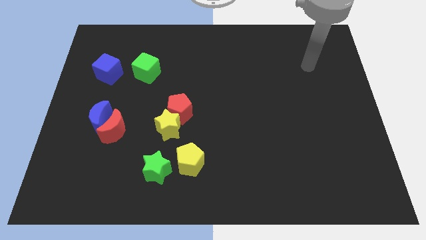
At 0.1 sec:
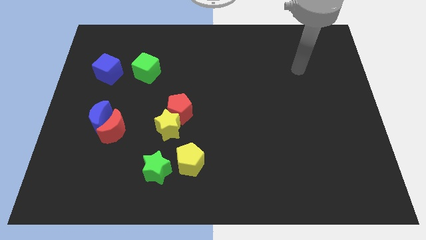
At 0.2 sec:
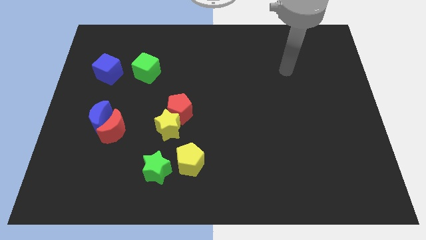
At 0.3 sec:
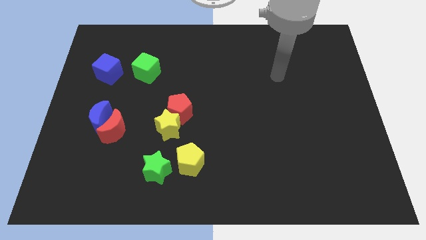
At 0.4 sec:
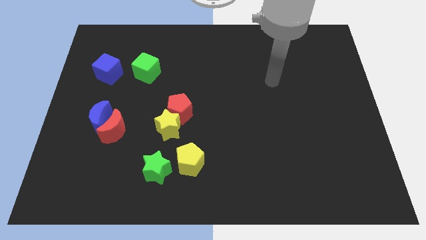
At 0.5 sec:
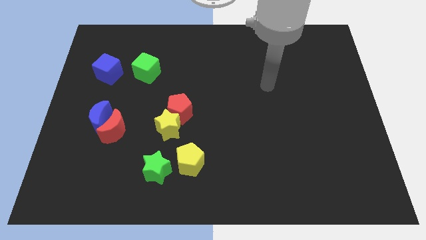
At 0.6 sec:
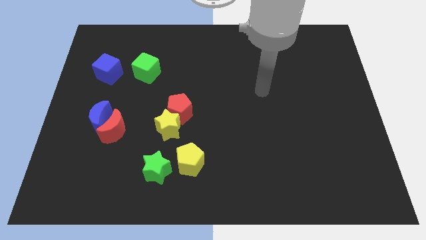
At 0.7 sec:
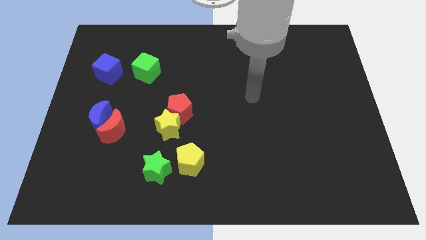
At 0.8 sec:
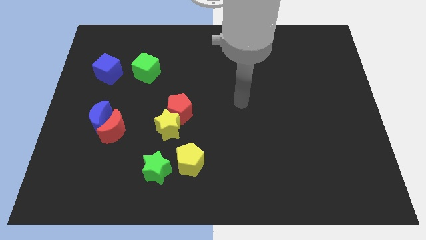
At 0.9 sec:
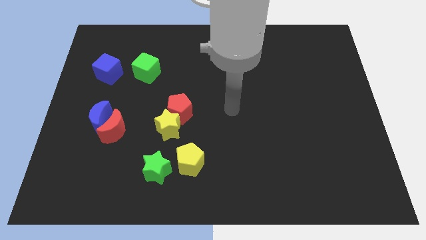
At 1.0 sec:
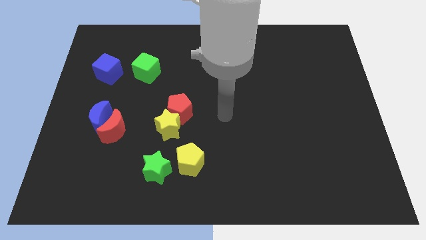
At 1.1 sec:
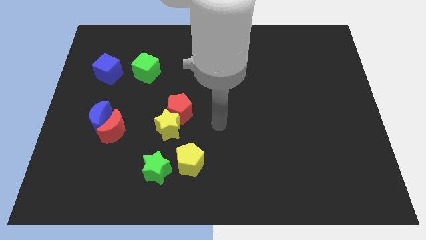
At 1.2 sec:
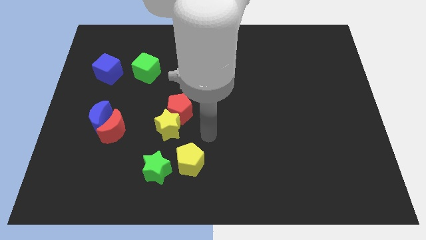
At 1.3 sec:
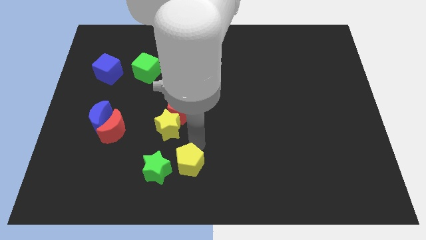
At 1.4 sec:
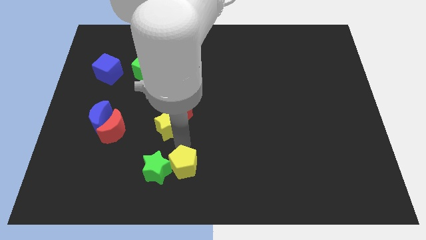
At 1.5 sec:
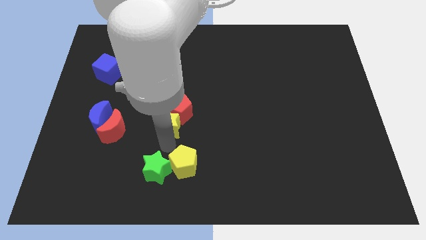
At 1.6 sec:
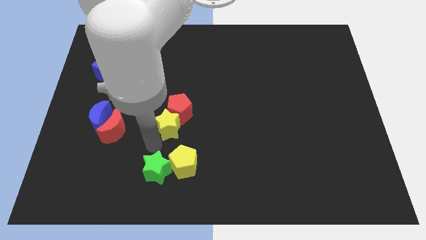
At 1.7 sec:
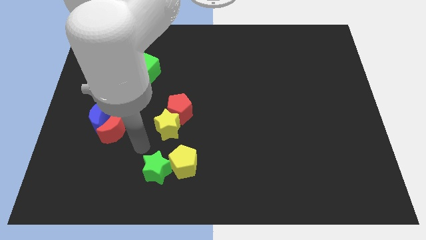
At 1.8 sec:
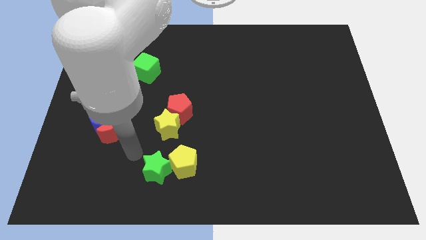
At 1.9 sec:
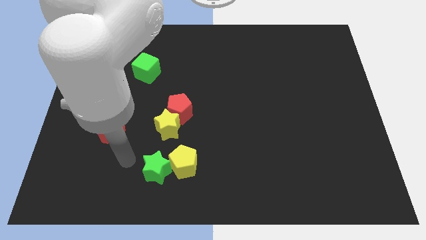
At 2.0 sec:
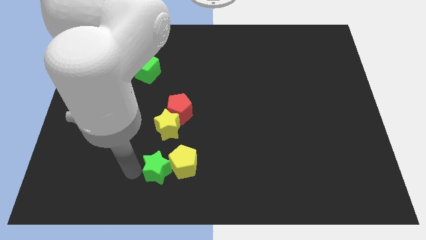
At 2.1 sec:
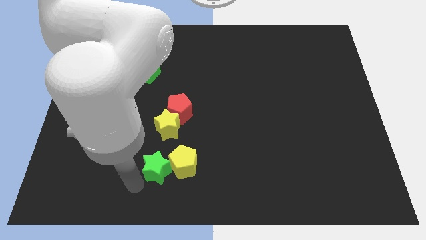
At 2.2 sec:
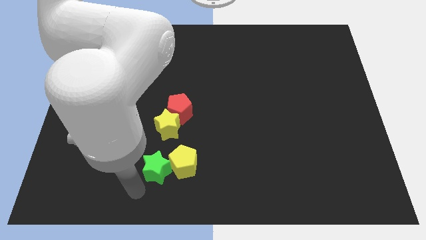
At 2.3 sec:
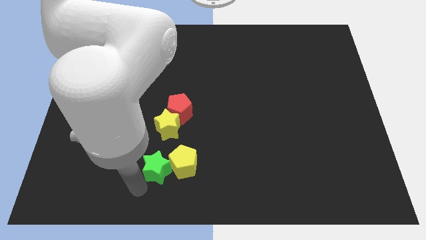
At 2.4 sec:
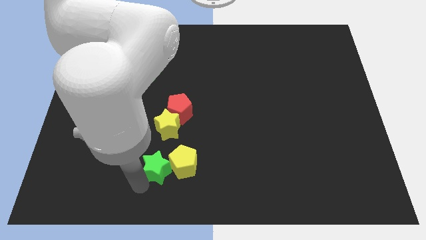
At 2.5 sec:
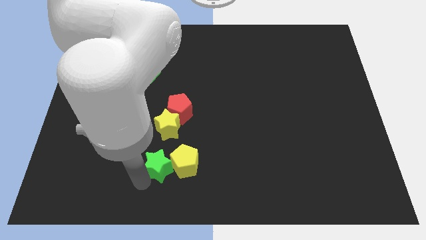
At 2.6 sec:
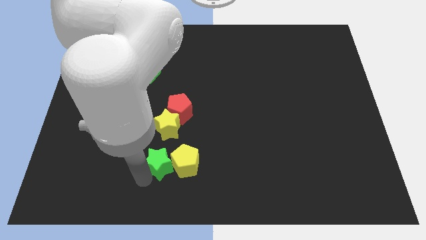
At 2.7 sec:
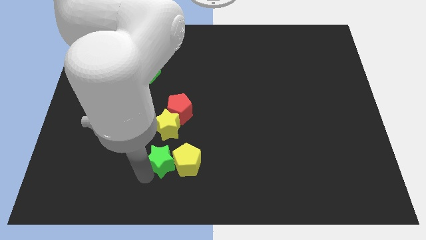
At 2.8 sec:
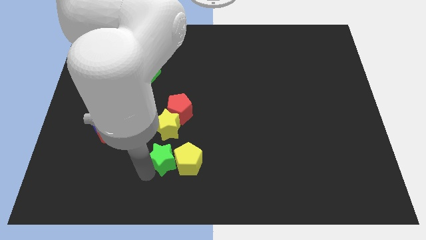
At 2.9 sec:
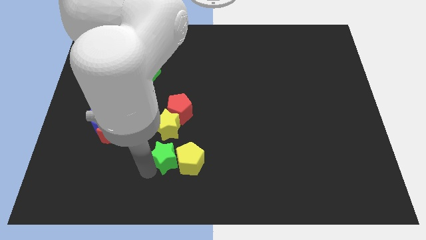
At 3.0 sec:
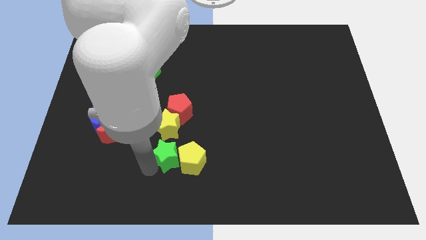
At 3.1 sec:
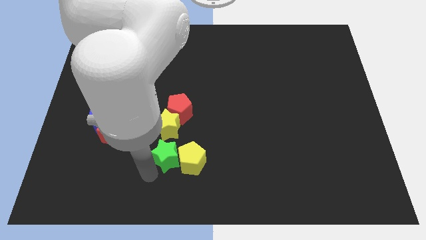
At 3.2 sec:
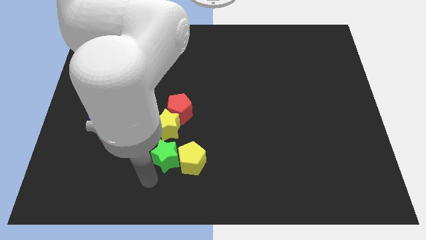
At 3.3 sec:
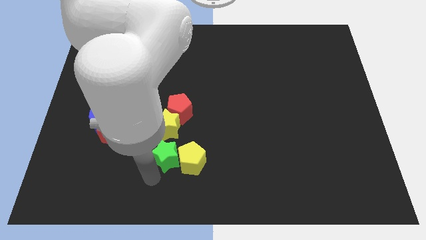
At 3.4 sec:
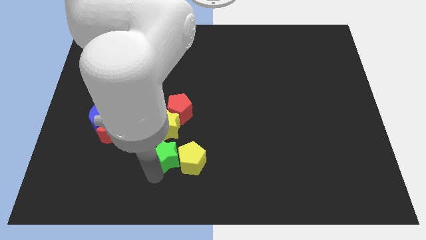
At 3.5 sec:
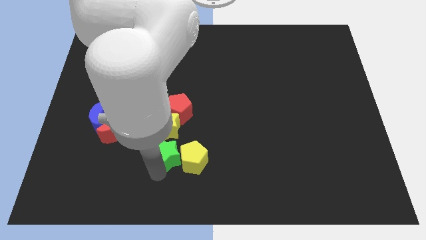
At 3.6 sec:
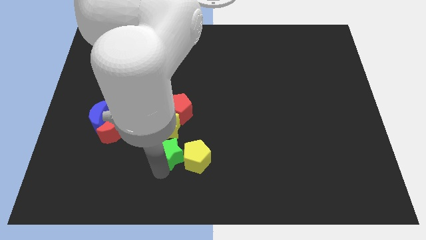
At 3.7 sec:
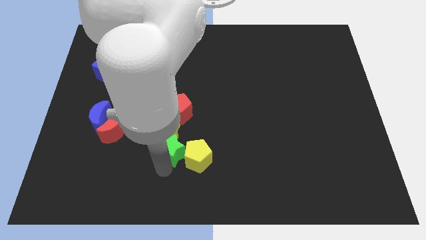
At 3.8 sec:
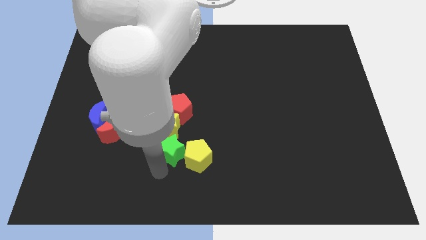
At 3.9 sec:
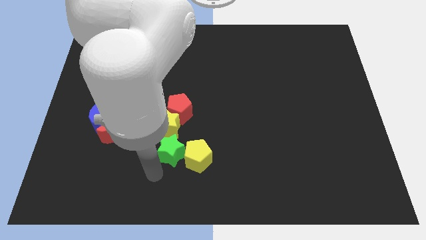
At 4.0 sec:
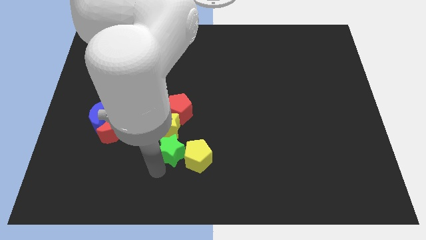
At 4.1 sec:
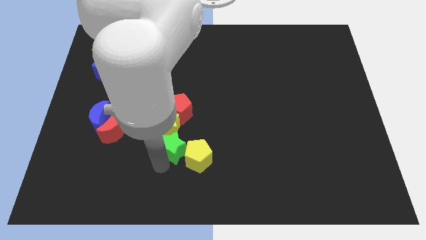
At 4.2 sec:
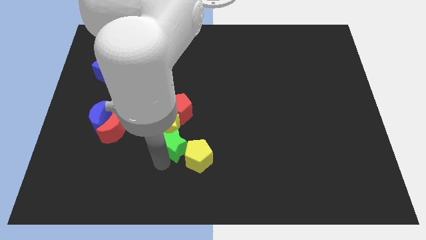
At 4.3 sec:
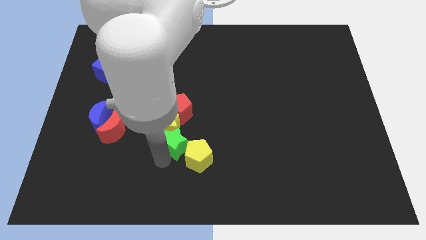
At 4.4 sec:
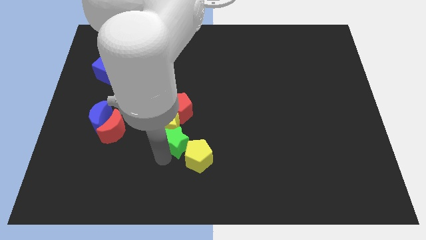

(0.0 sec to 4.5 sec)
slightly slide the green star up and to the right diagonally

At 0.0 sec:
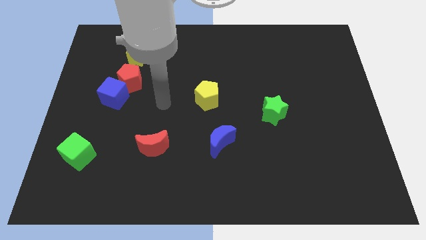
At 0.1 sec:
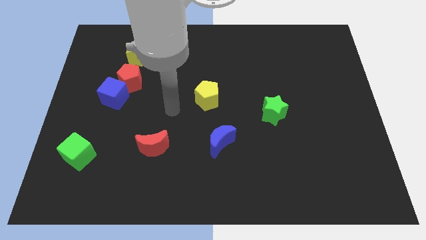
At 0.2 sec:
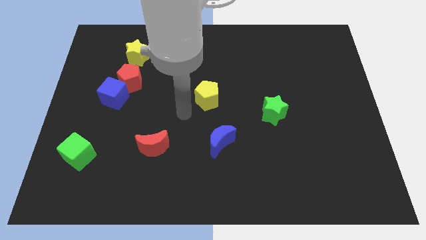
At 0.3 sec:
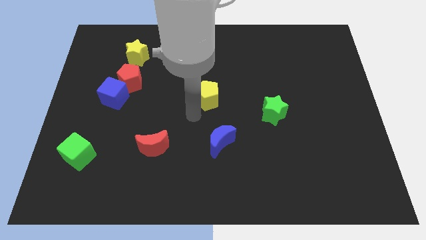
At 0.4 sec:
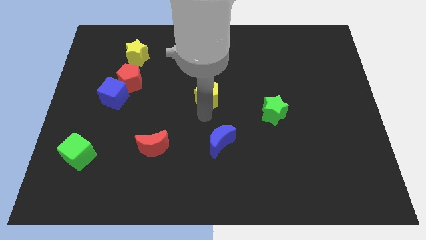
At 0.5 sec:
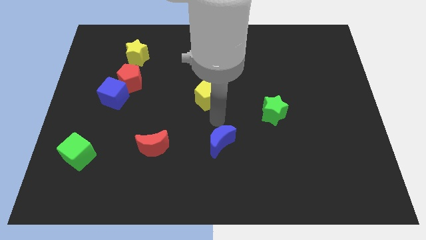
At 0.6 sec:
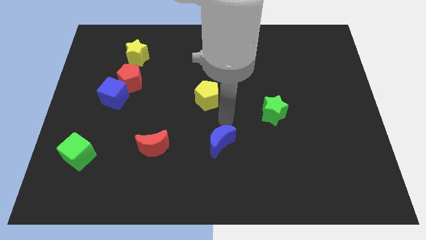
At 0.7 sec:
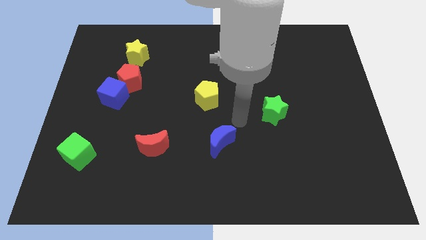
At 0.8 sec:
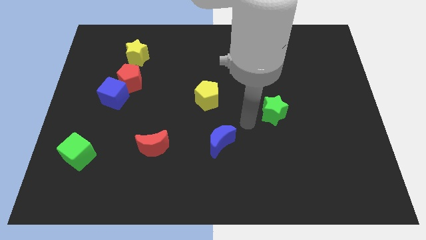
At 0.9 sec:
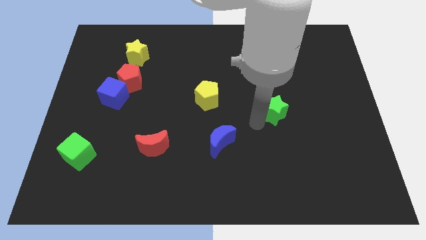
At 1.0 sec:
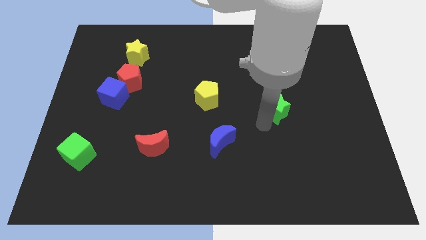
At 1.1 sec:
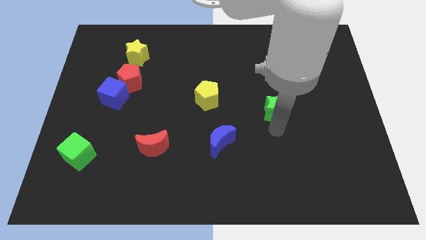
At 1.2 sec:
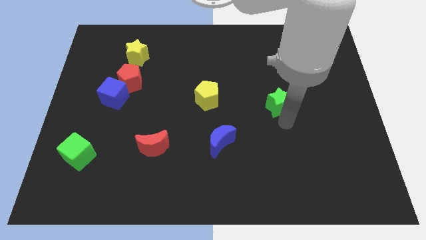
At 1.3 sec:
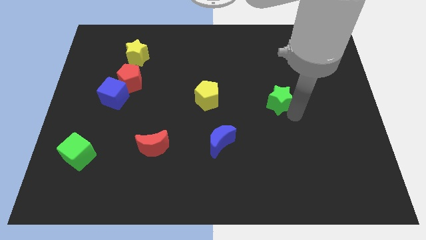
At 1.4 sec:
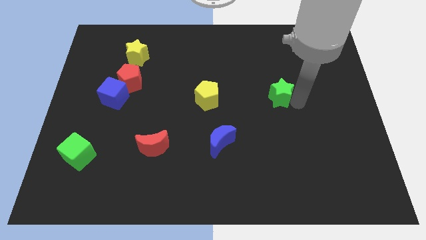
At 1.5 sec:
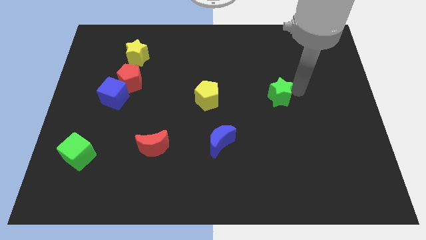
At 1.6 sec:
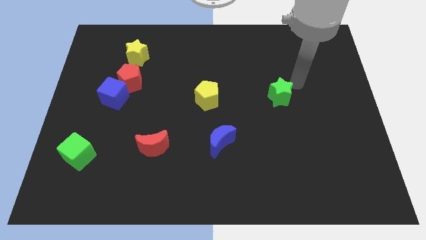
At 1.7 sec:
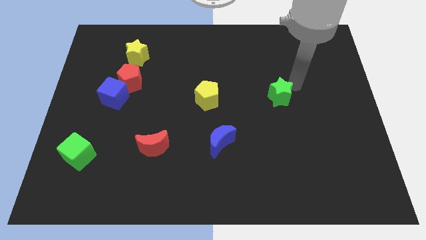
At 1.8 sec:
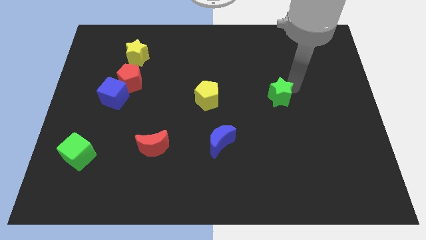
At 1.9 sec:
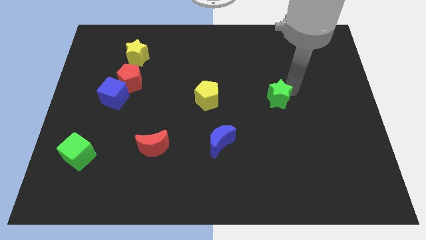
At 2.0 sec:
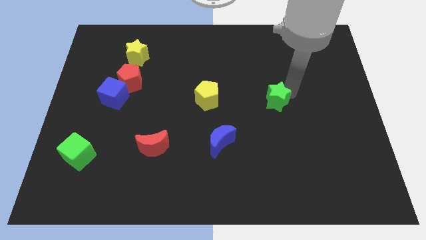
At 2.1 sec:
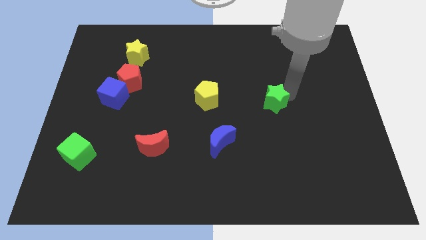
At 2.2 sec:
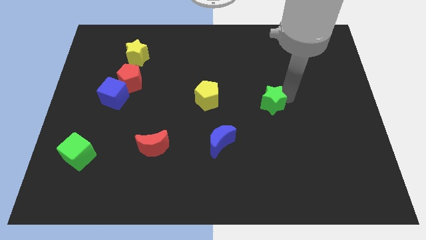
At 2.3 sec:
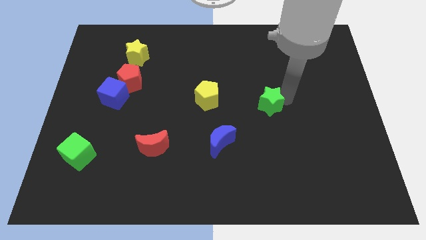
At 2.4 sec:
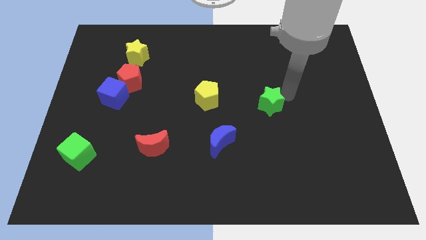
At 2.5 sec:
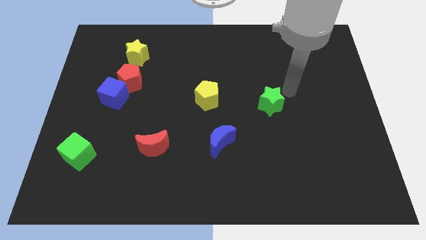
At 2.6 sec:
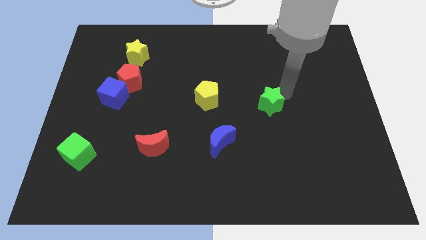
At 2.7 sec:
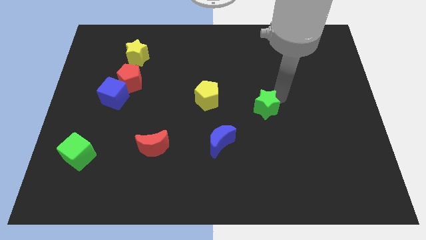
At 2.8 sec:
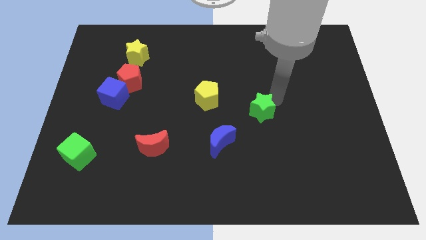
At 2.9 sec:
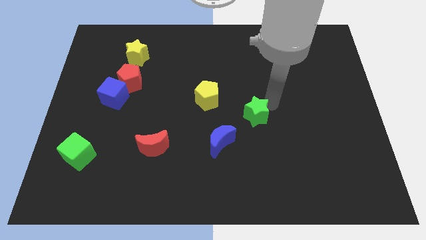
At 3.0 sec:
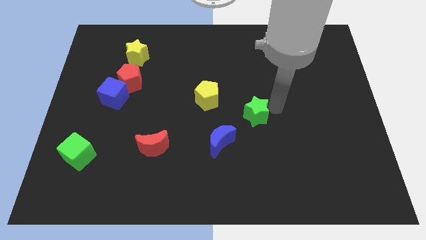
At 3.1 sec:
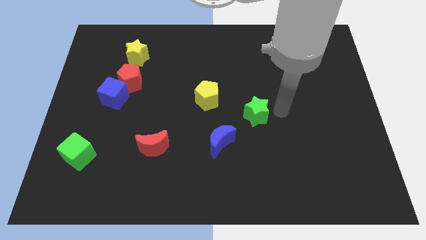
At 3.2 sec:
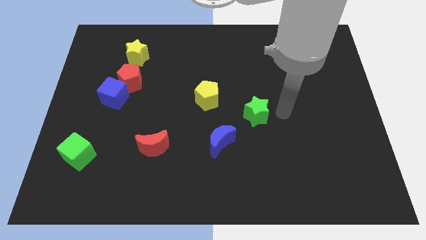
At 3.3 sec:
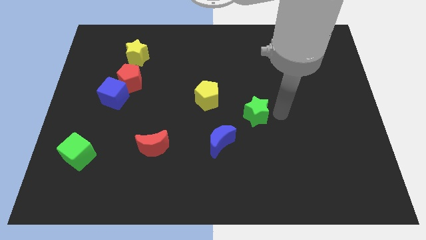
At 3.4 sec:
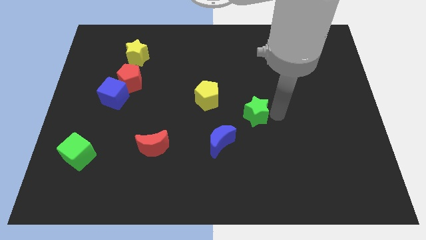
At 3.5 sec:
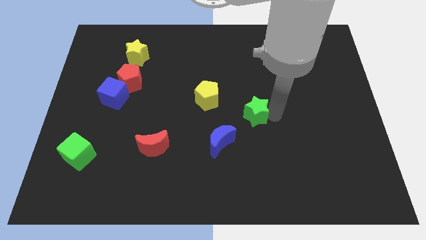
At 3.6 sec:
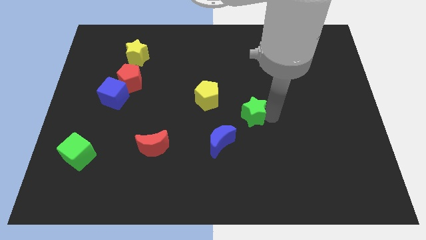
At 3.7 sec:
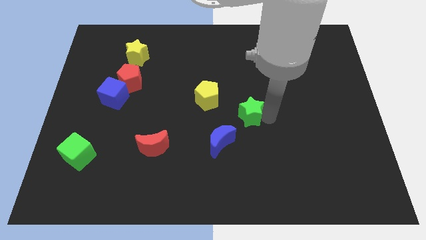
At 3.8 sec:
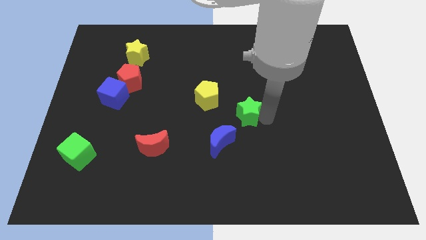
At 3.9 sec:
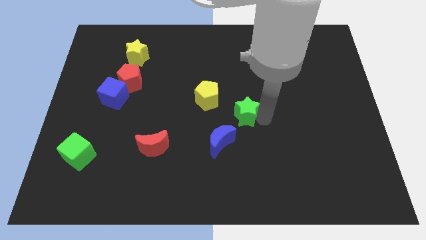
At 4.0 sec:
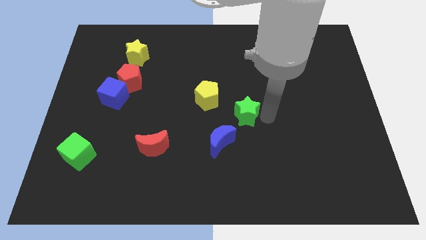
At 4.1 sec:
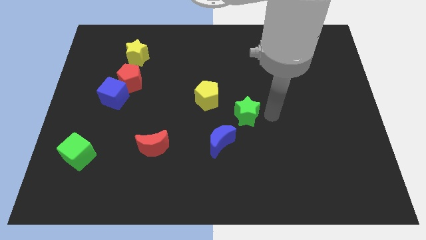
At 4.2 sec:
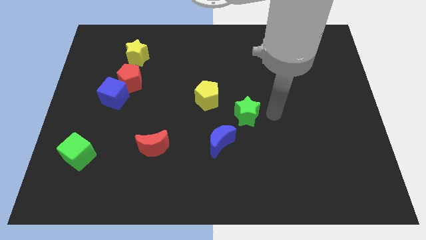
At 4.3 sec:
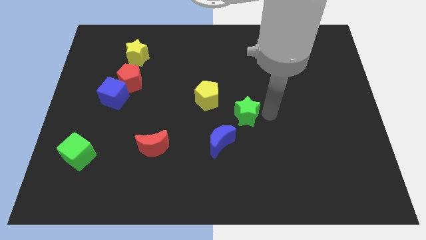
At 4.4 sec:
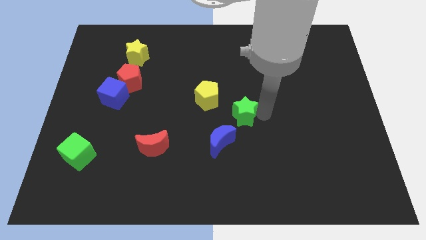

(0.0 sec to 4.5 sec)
push the green star slightly left
